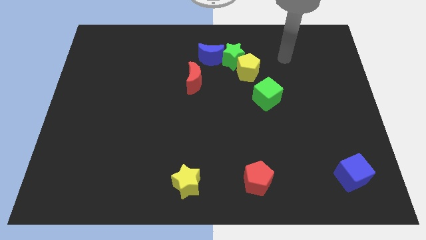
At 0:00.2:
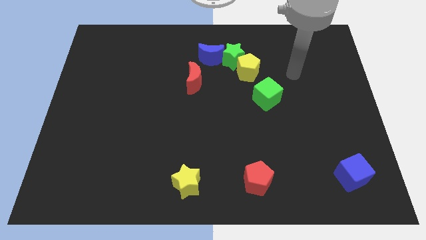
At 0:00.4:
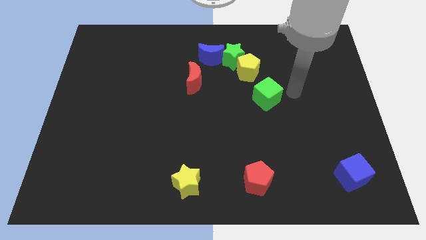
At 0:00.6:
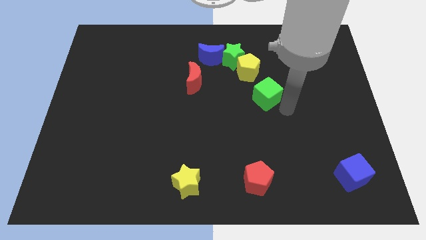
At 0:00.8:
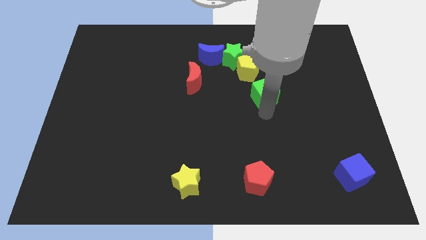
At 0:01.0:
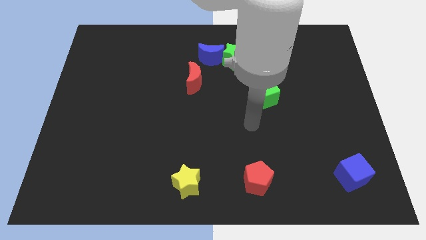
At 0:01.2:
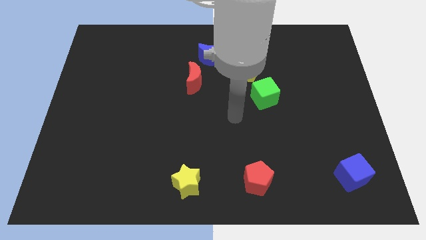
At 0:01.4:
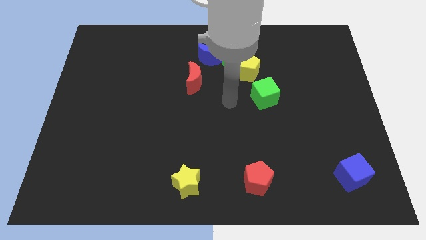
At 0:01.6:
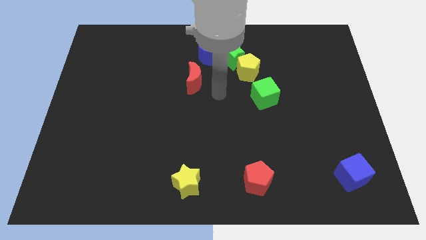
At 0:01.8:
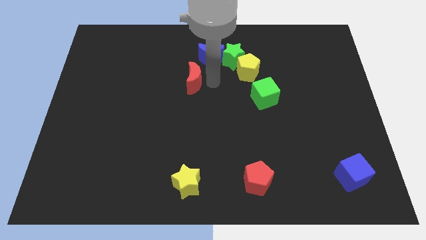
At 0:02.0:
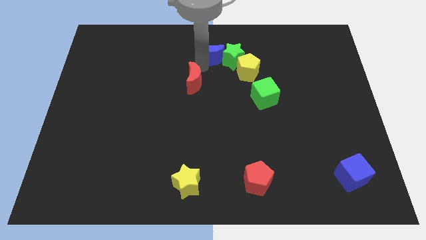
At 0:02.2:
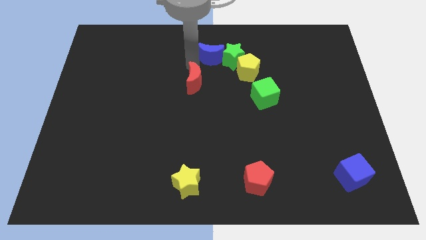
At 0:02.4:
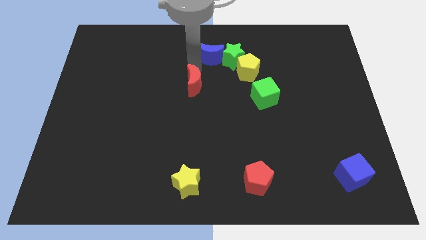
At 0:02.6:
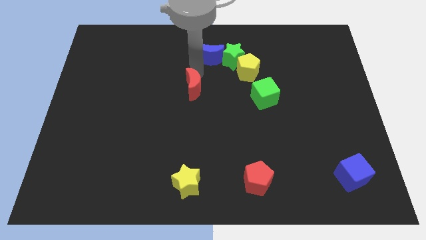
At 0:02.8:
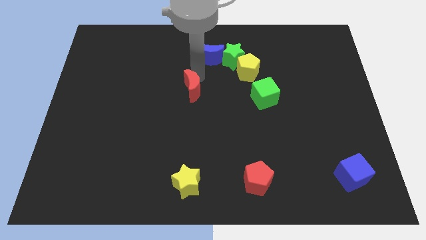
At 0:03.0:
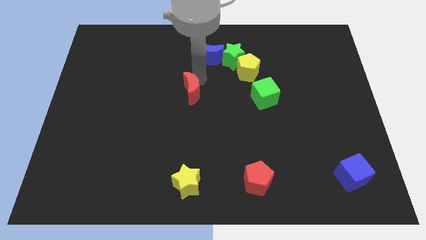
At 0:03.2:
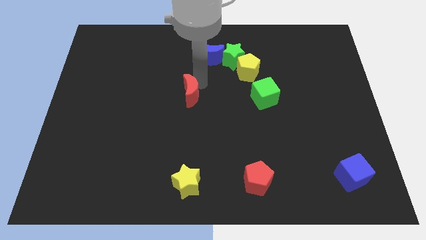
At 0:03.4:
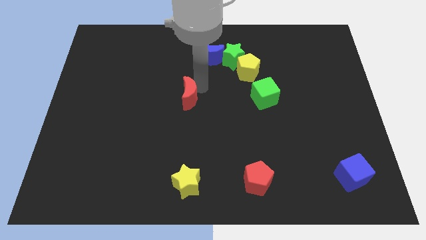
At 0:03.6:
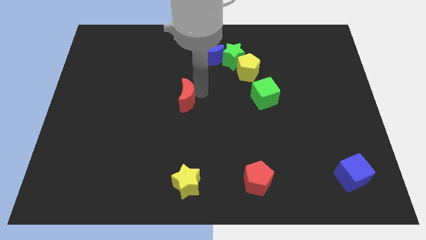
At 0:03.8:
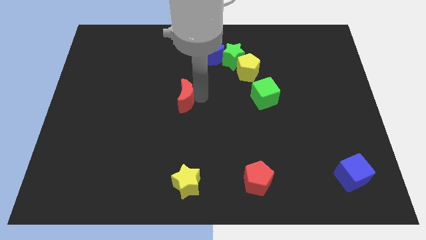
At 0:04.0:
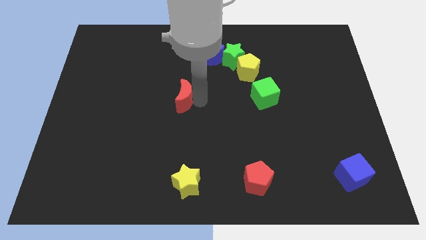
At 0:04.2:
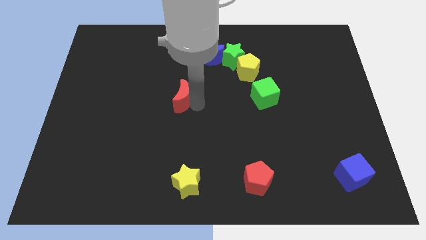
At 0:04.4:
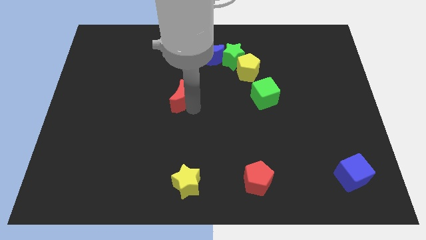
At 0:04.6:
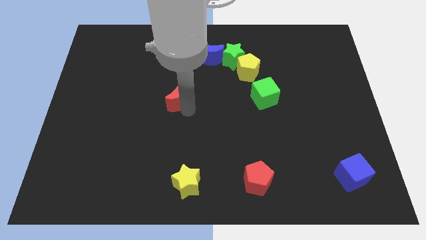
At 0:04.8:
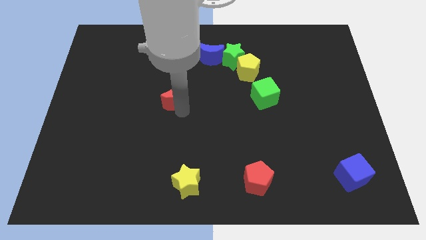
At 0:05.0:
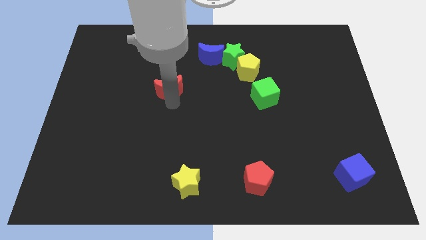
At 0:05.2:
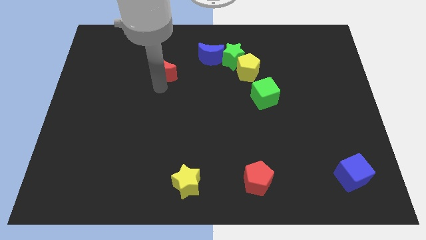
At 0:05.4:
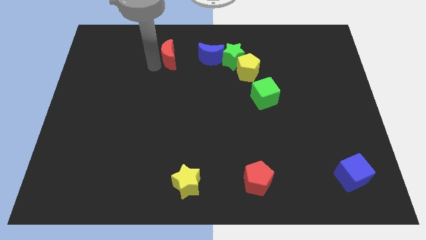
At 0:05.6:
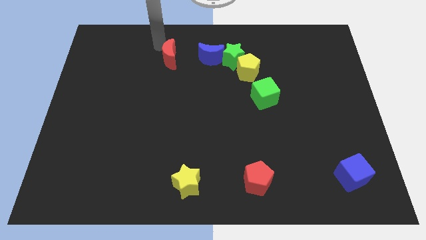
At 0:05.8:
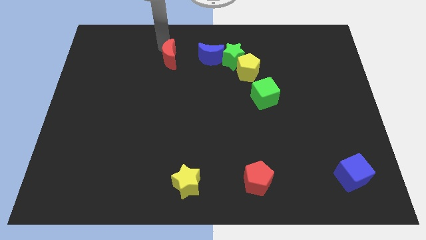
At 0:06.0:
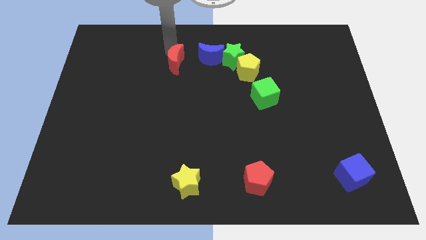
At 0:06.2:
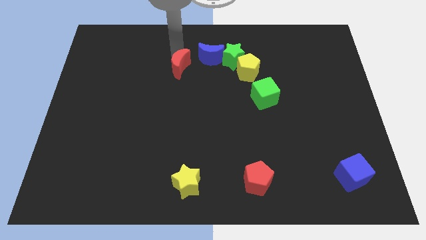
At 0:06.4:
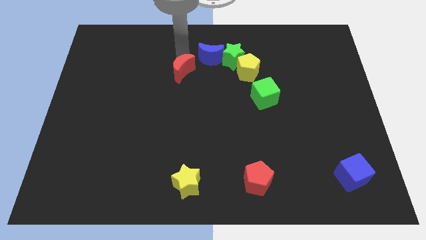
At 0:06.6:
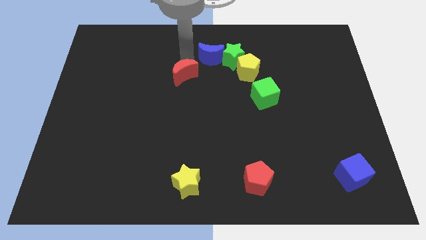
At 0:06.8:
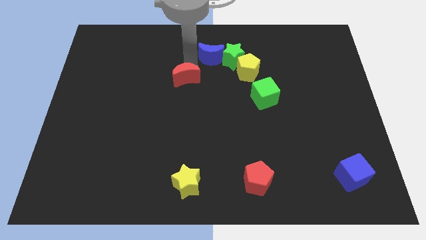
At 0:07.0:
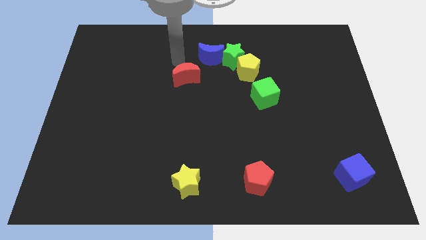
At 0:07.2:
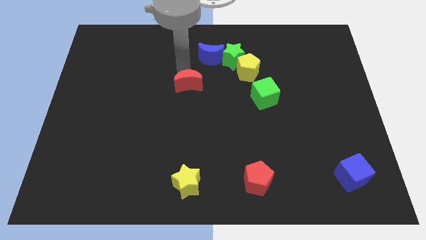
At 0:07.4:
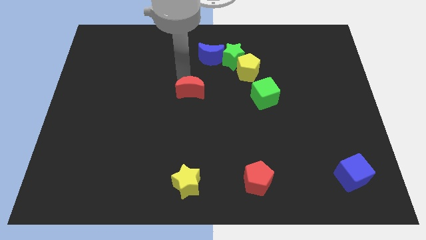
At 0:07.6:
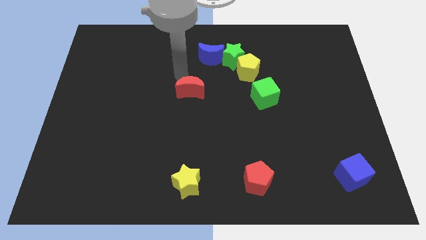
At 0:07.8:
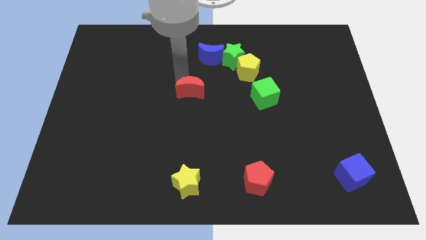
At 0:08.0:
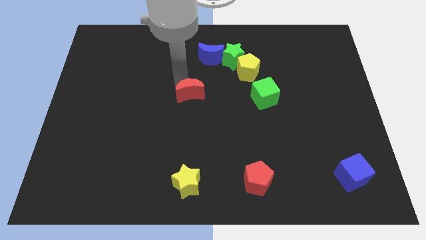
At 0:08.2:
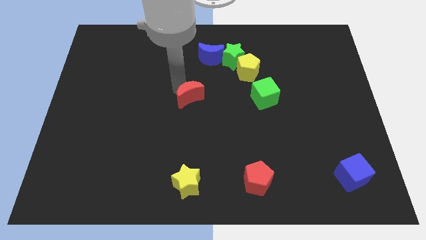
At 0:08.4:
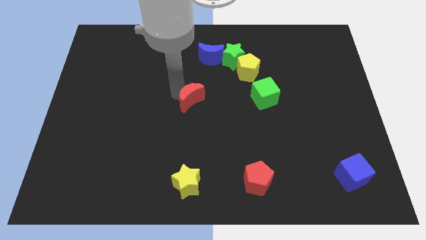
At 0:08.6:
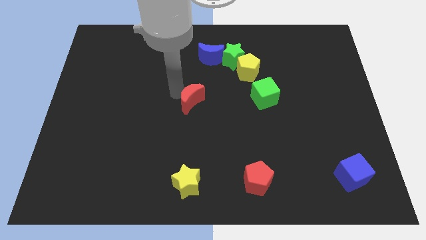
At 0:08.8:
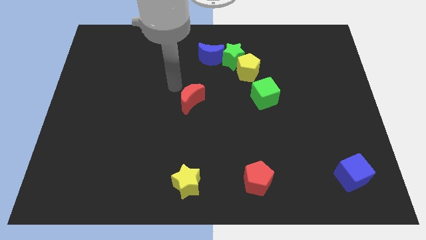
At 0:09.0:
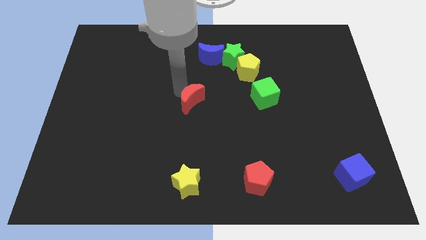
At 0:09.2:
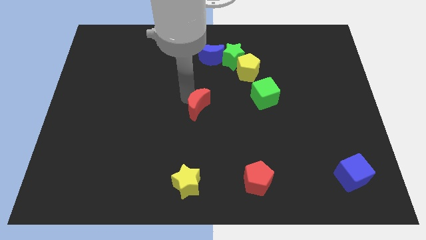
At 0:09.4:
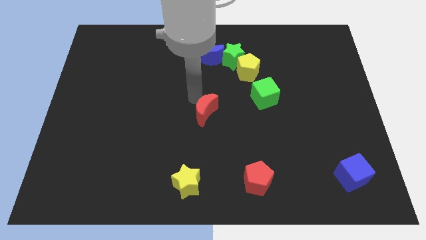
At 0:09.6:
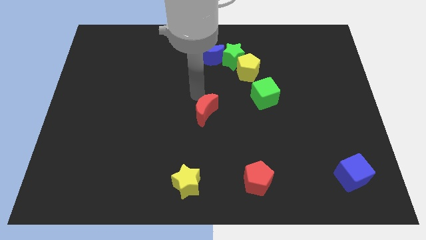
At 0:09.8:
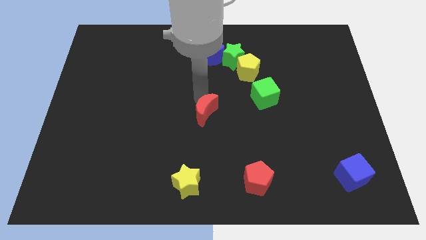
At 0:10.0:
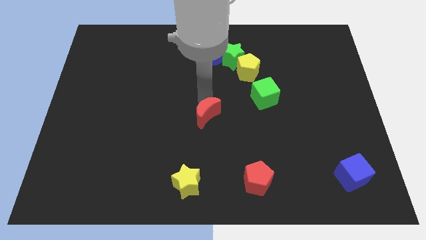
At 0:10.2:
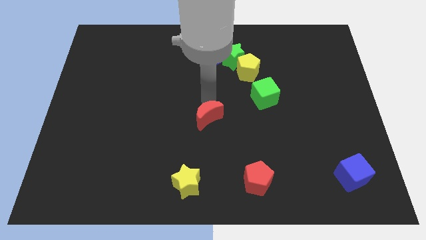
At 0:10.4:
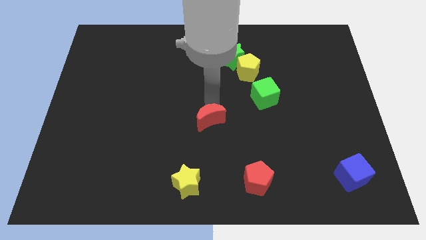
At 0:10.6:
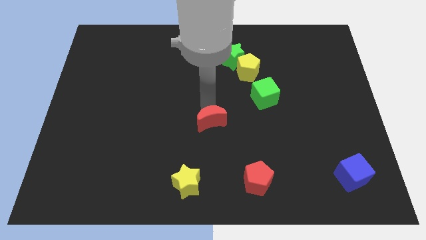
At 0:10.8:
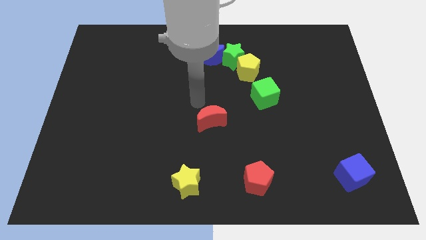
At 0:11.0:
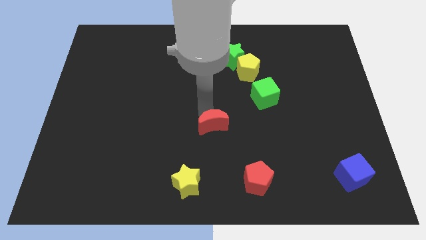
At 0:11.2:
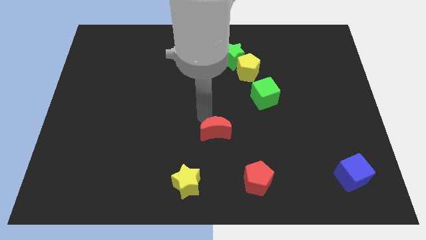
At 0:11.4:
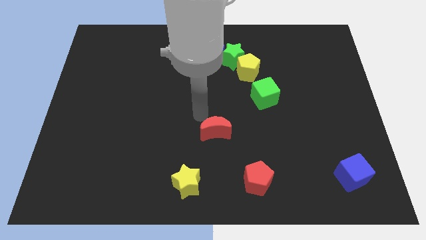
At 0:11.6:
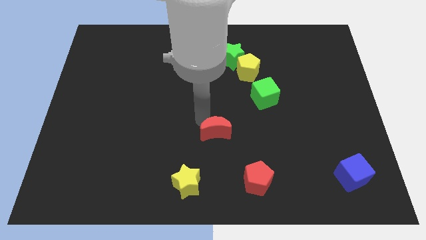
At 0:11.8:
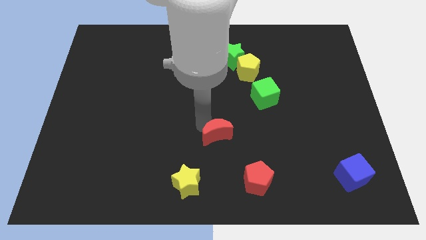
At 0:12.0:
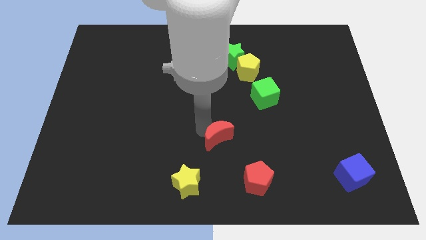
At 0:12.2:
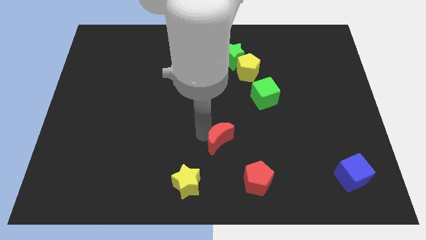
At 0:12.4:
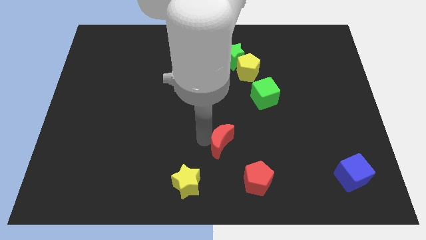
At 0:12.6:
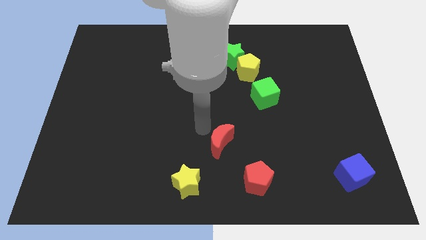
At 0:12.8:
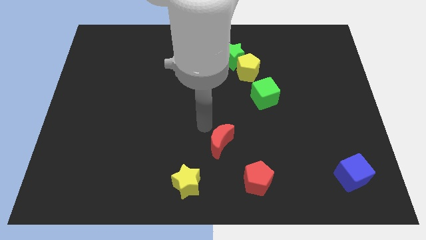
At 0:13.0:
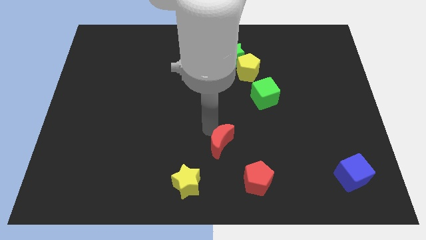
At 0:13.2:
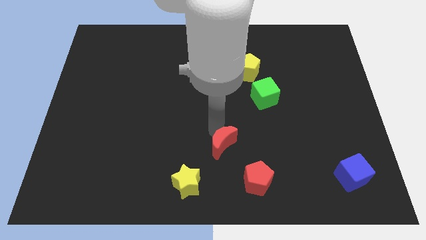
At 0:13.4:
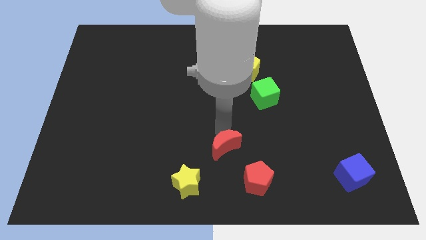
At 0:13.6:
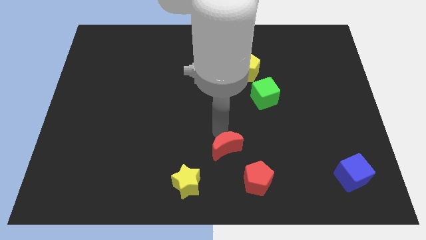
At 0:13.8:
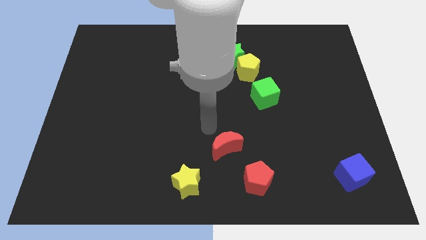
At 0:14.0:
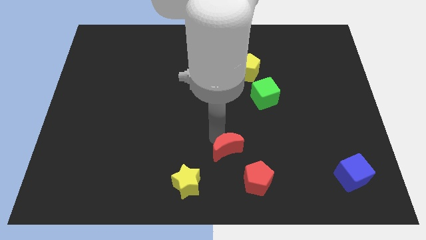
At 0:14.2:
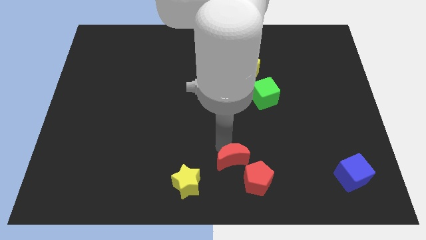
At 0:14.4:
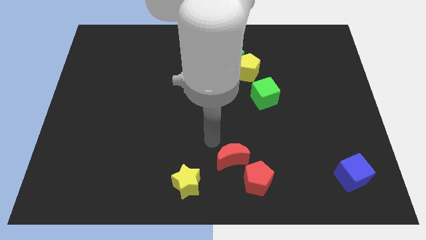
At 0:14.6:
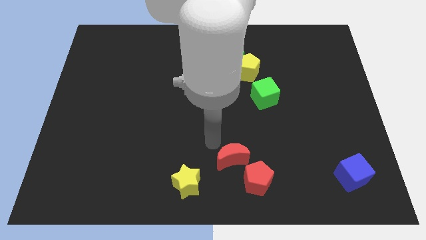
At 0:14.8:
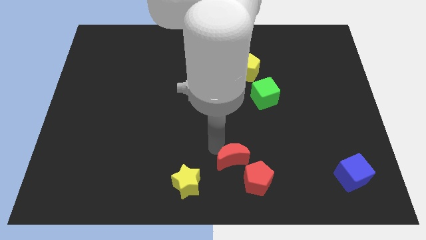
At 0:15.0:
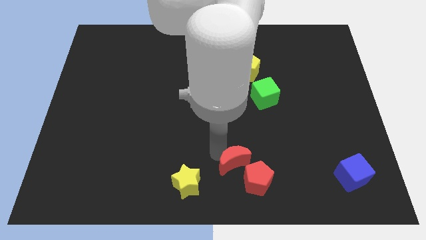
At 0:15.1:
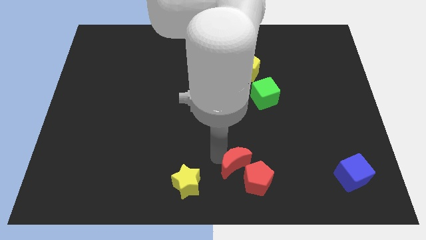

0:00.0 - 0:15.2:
put the red moon to the red pentagon
